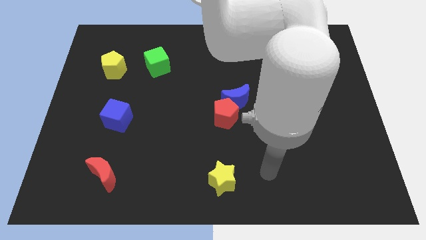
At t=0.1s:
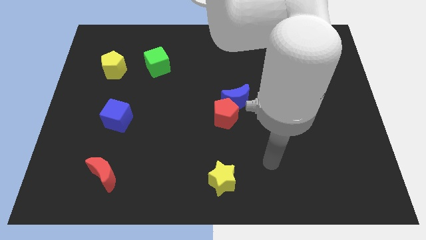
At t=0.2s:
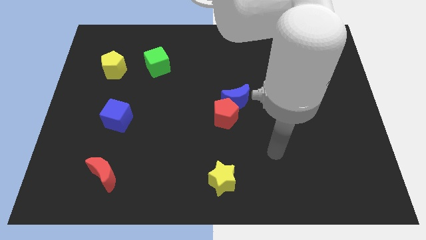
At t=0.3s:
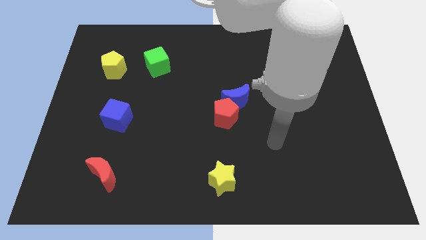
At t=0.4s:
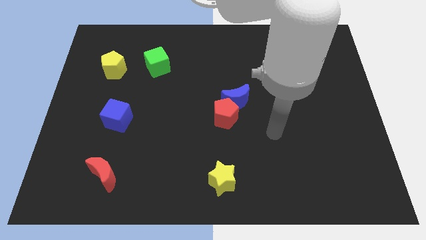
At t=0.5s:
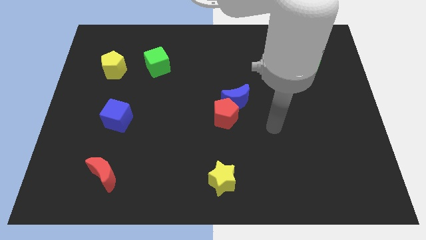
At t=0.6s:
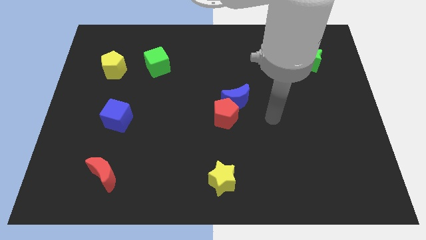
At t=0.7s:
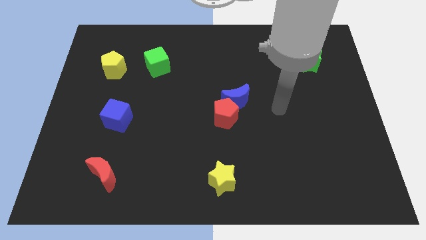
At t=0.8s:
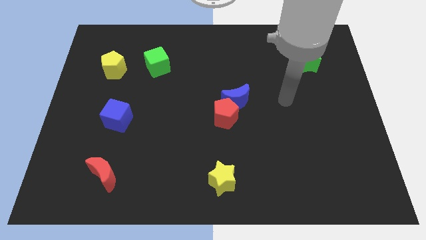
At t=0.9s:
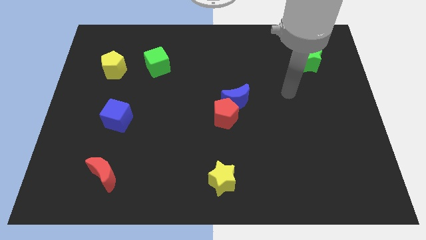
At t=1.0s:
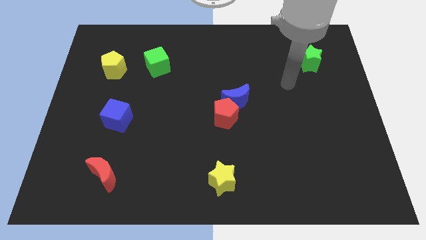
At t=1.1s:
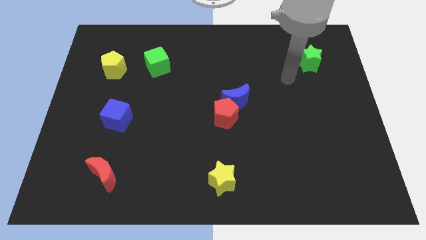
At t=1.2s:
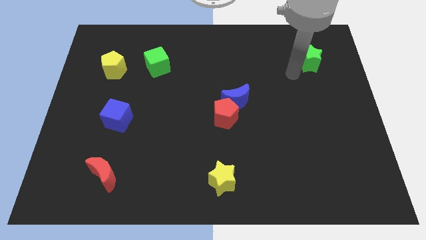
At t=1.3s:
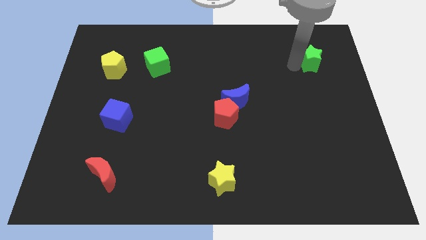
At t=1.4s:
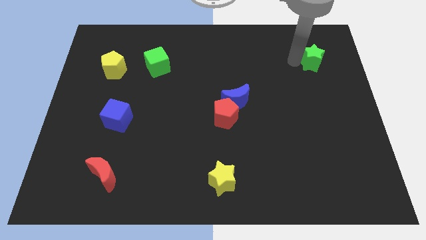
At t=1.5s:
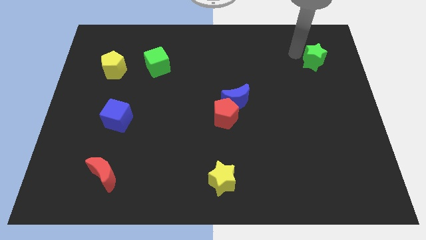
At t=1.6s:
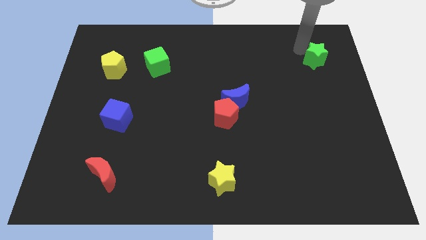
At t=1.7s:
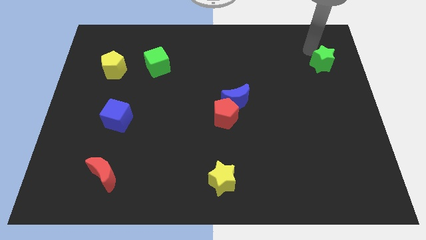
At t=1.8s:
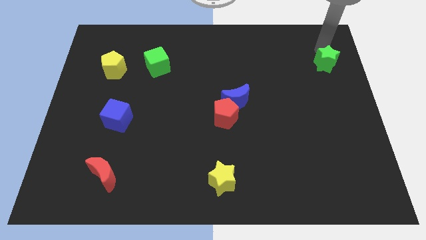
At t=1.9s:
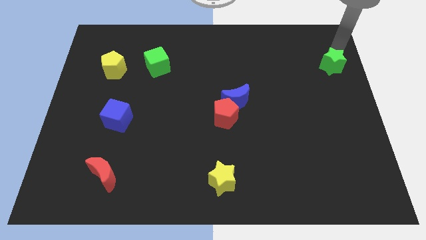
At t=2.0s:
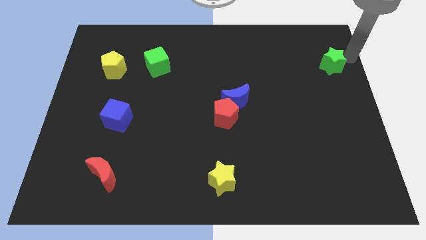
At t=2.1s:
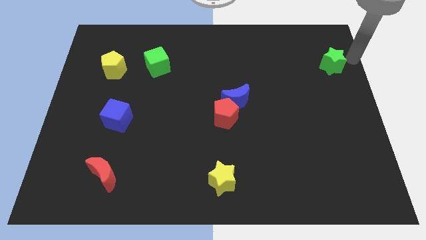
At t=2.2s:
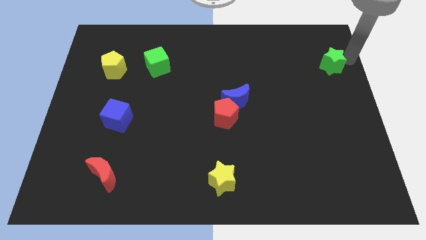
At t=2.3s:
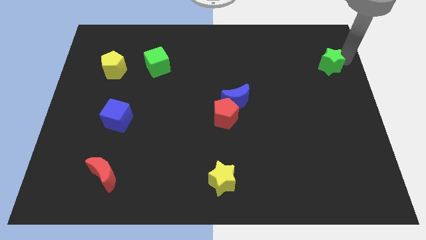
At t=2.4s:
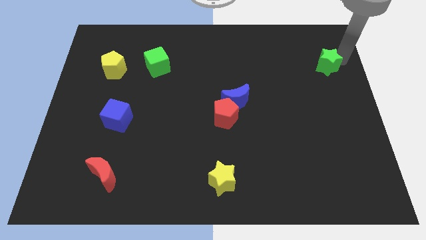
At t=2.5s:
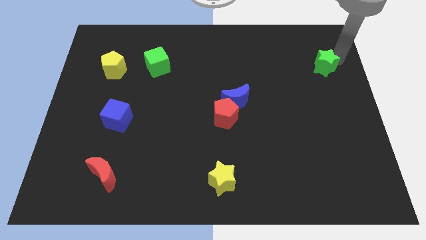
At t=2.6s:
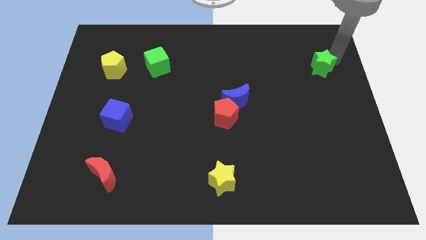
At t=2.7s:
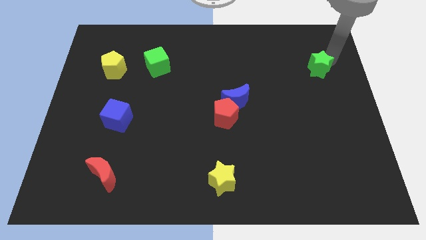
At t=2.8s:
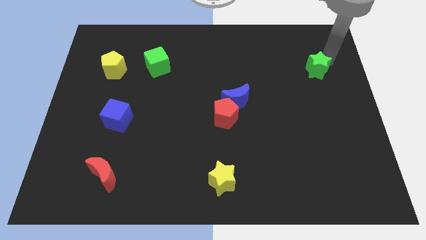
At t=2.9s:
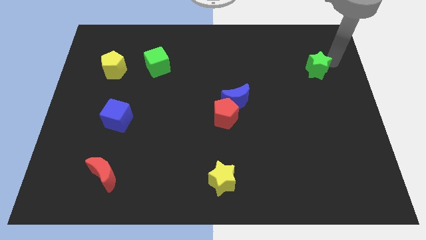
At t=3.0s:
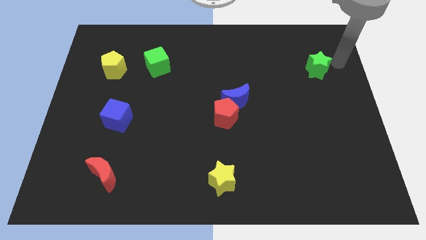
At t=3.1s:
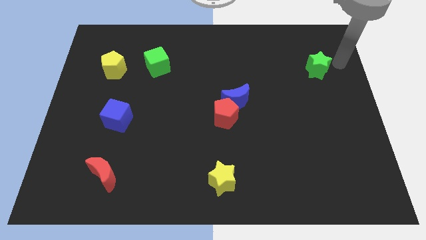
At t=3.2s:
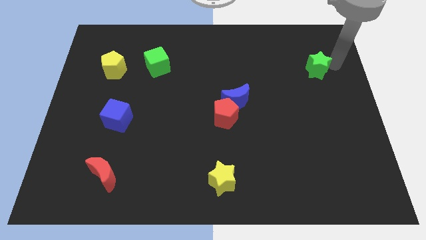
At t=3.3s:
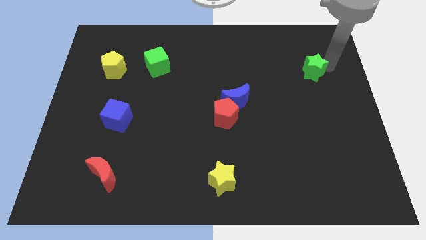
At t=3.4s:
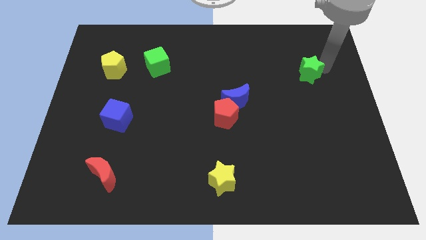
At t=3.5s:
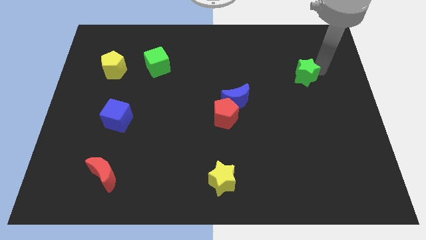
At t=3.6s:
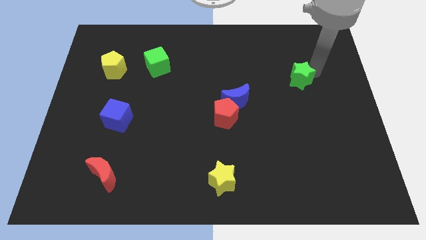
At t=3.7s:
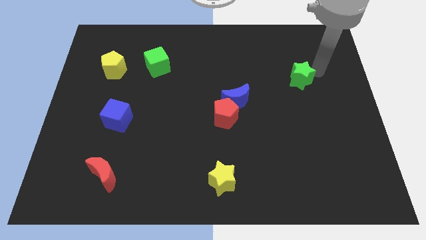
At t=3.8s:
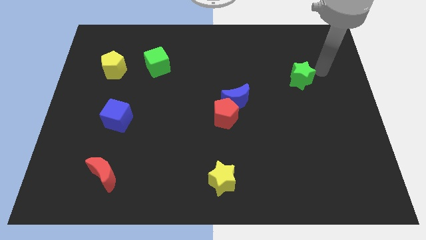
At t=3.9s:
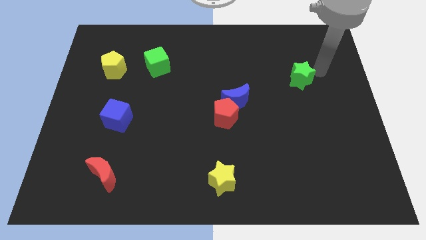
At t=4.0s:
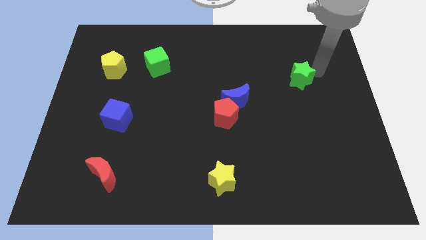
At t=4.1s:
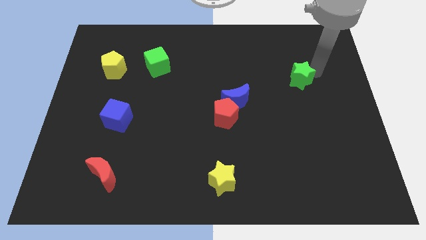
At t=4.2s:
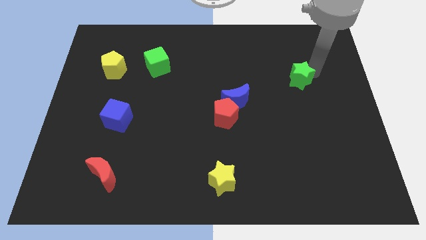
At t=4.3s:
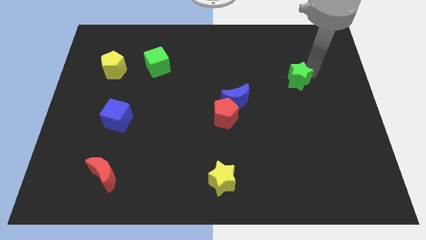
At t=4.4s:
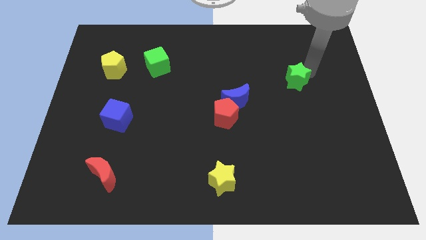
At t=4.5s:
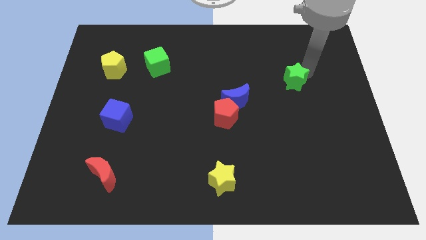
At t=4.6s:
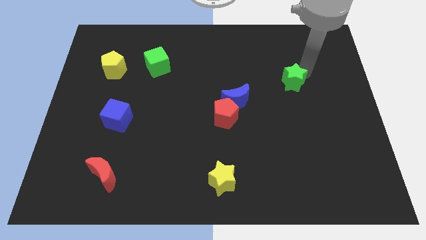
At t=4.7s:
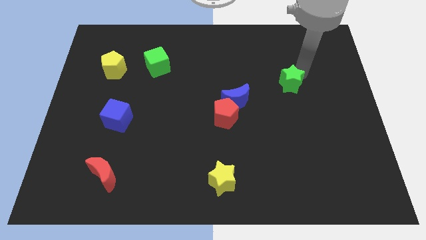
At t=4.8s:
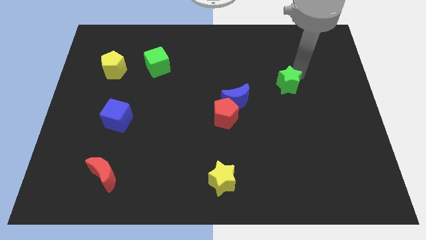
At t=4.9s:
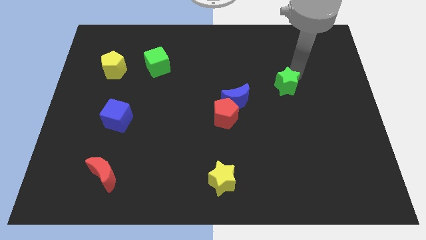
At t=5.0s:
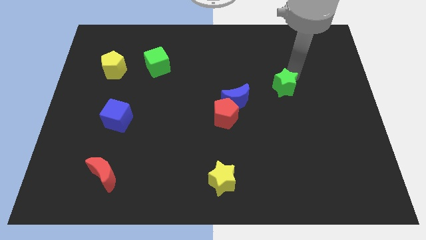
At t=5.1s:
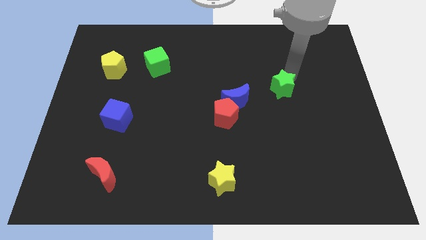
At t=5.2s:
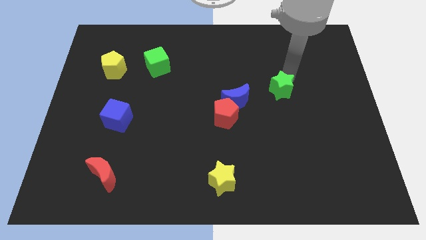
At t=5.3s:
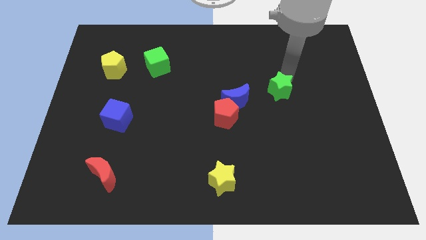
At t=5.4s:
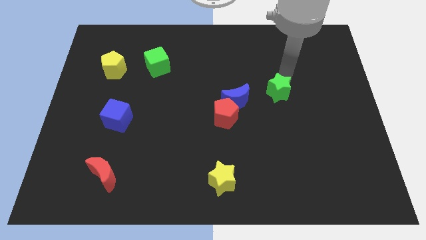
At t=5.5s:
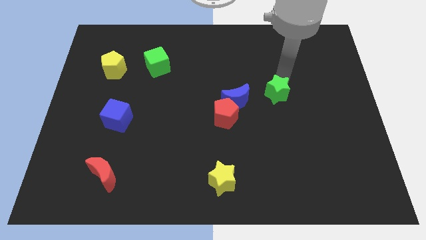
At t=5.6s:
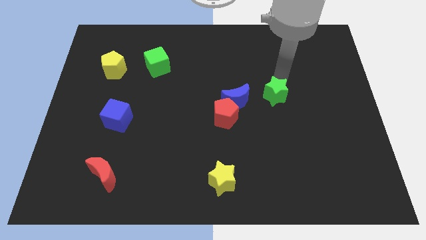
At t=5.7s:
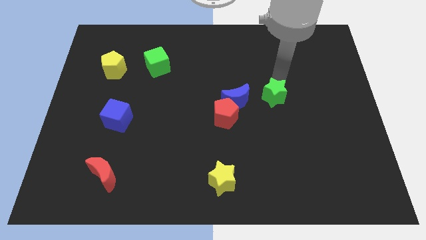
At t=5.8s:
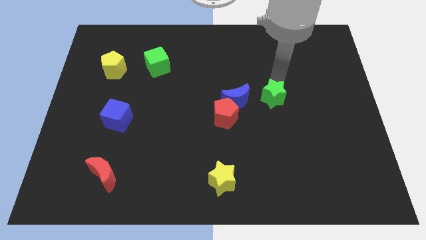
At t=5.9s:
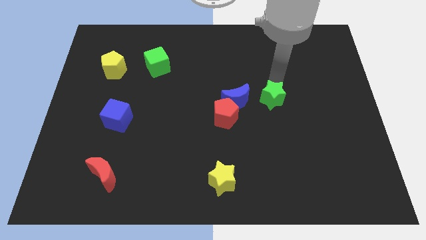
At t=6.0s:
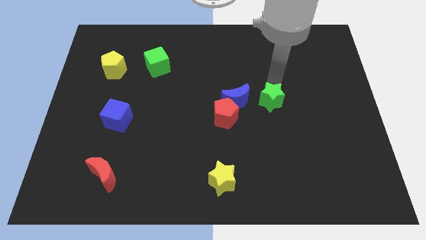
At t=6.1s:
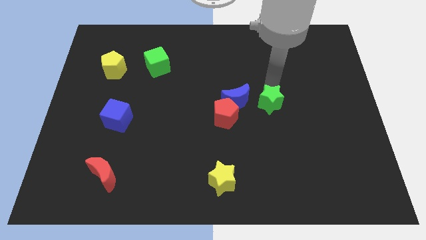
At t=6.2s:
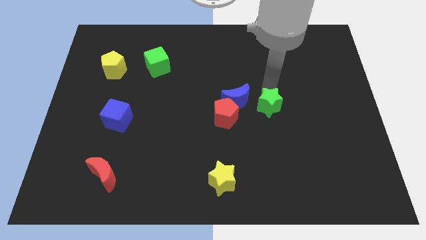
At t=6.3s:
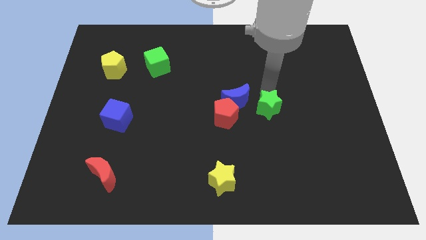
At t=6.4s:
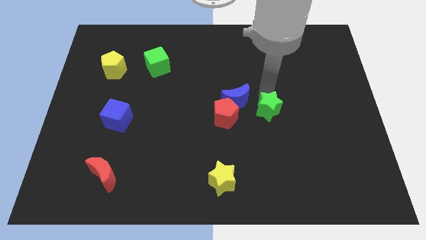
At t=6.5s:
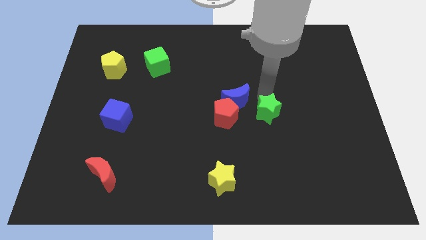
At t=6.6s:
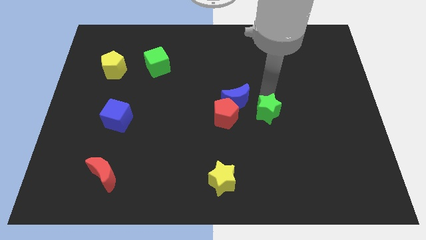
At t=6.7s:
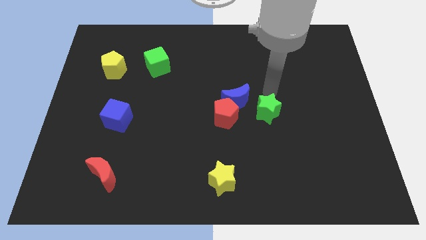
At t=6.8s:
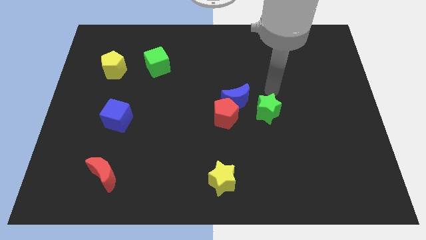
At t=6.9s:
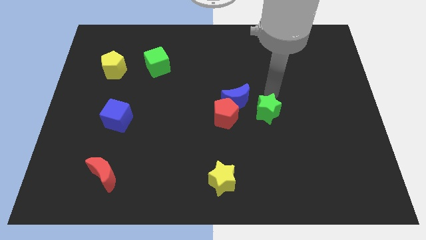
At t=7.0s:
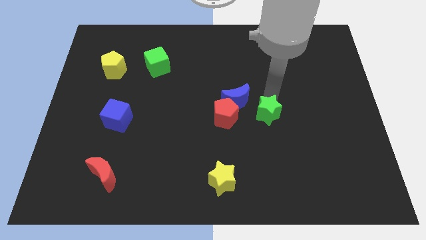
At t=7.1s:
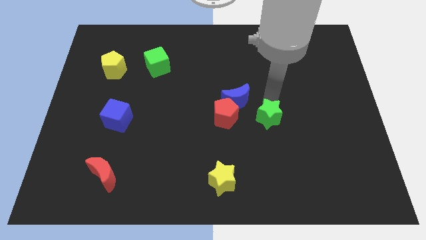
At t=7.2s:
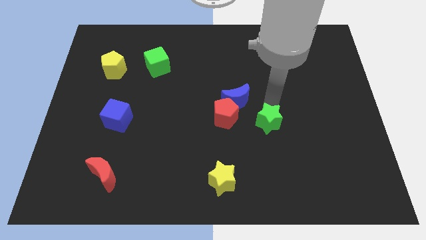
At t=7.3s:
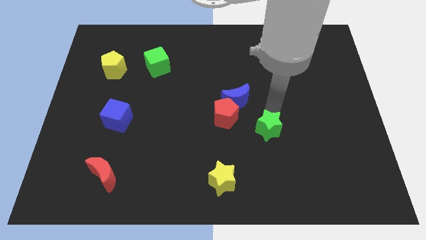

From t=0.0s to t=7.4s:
move the green star to the bottom right of the red pentagon
